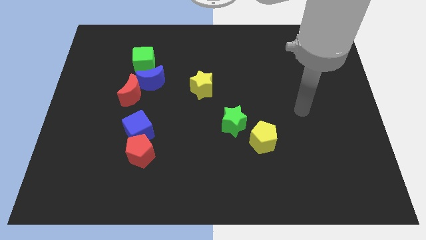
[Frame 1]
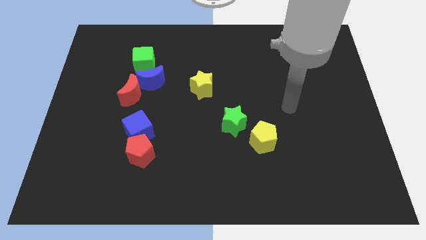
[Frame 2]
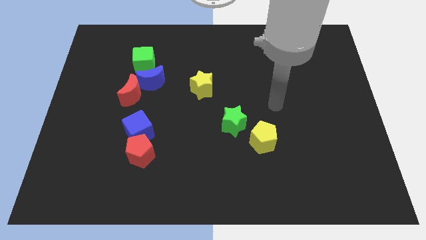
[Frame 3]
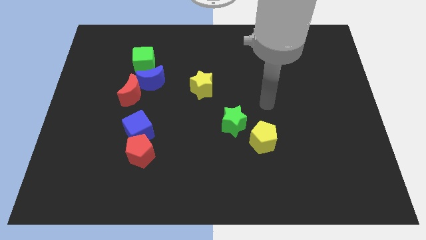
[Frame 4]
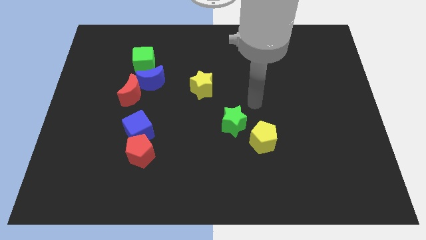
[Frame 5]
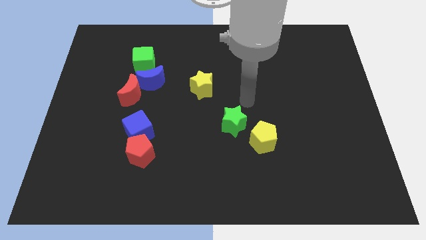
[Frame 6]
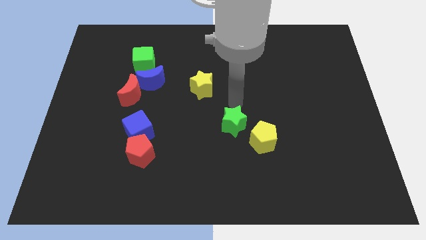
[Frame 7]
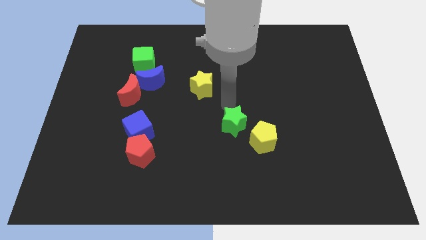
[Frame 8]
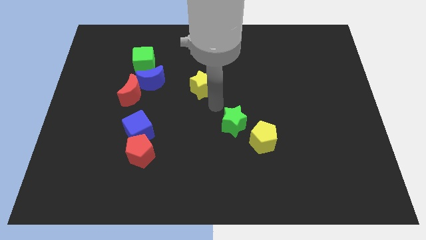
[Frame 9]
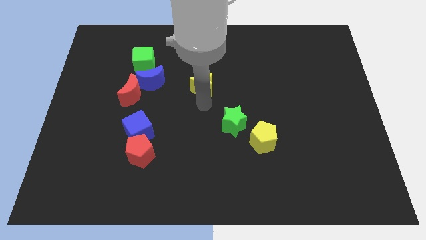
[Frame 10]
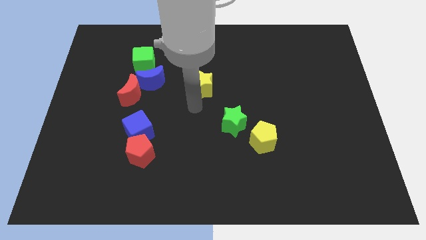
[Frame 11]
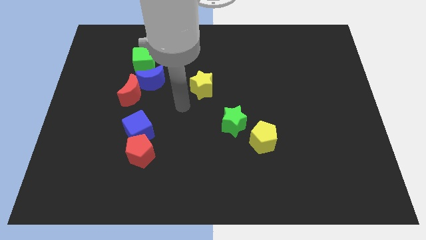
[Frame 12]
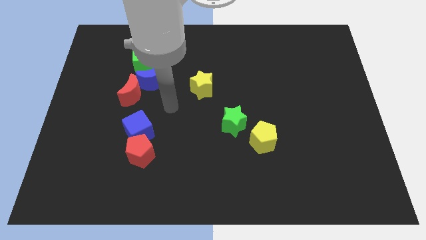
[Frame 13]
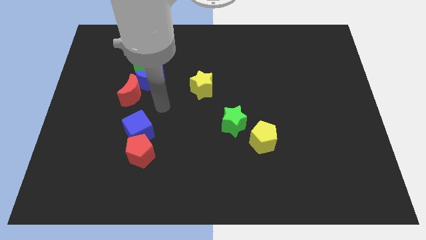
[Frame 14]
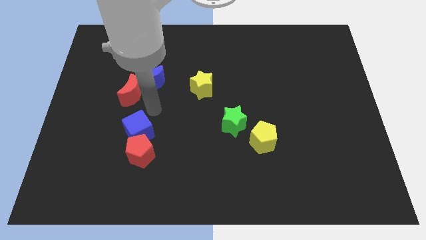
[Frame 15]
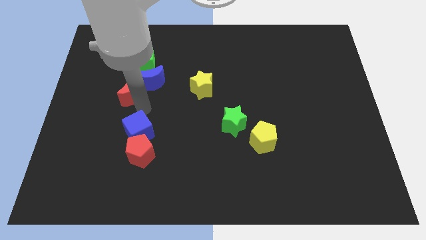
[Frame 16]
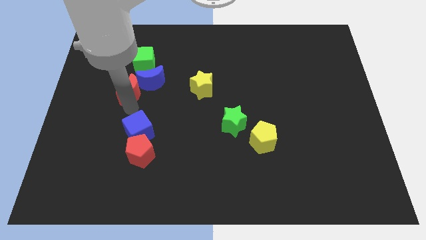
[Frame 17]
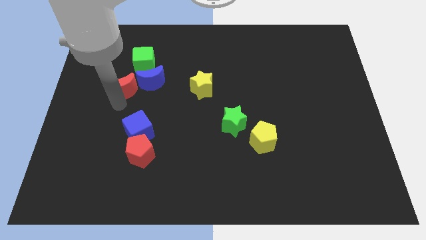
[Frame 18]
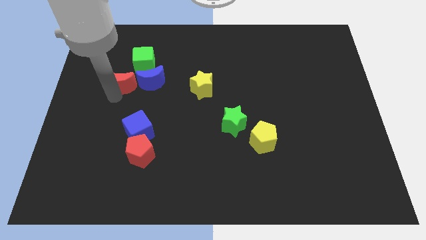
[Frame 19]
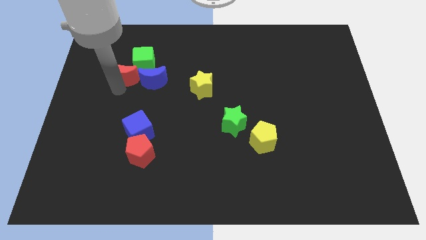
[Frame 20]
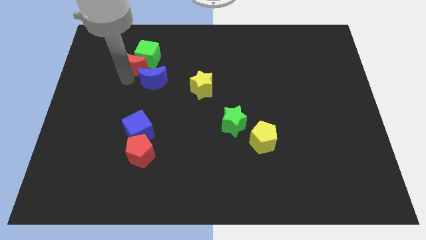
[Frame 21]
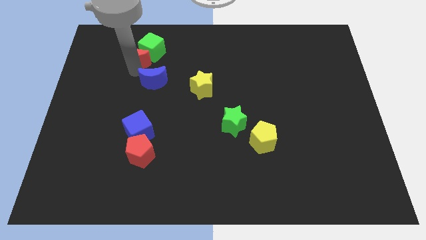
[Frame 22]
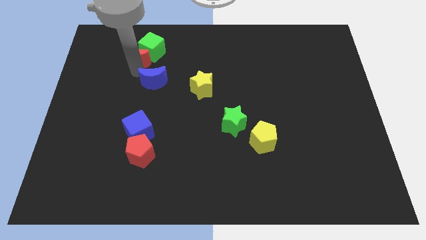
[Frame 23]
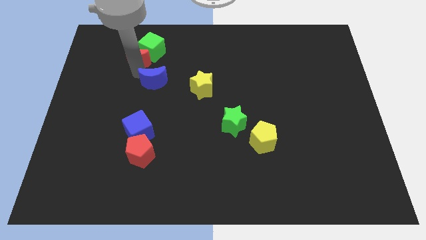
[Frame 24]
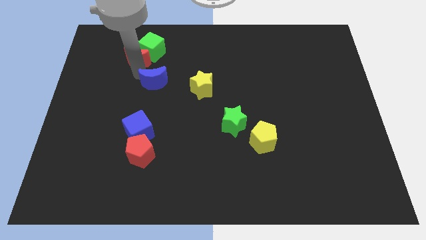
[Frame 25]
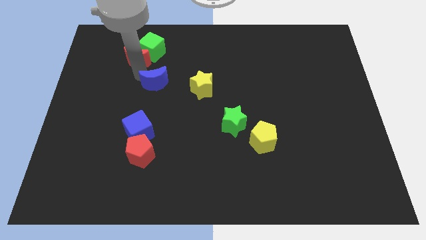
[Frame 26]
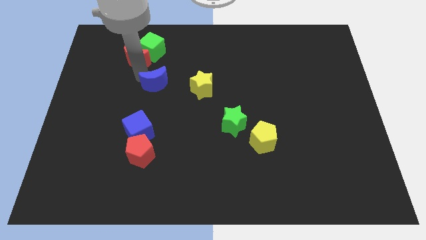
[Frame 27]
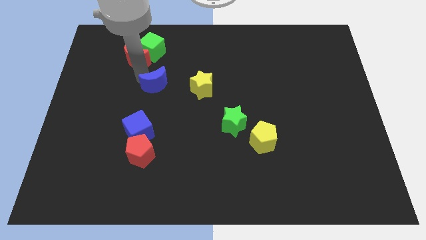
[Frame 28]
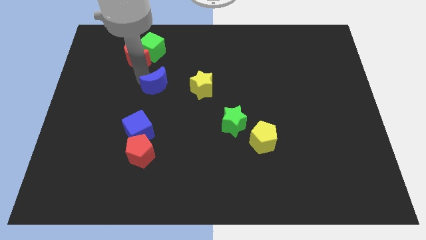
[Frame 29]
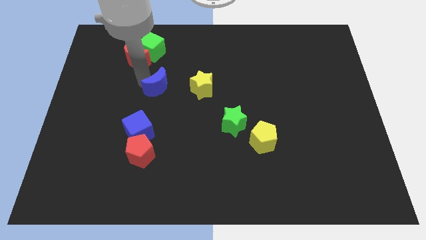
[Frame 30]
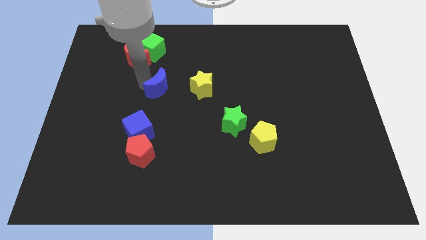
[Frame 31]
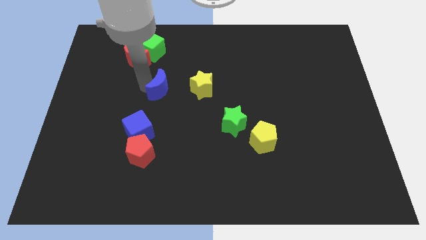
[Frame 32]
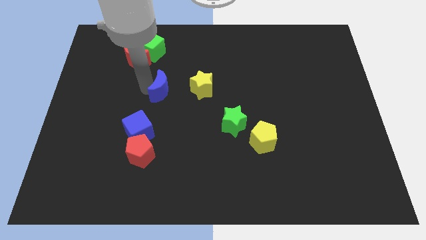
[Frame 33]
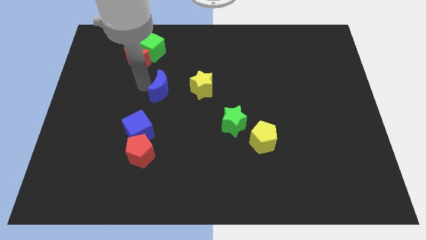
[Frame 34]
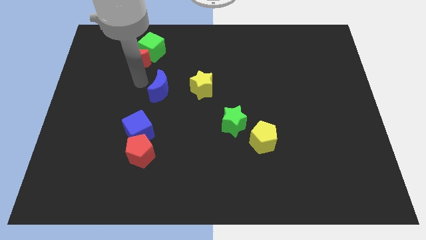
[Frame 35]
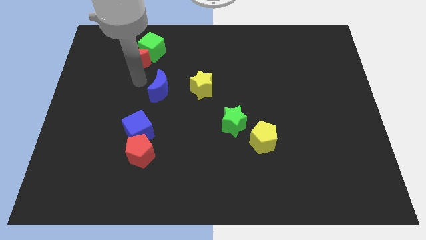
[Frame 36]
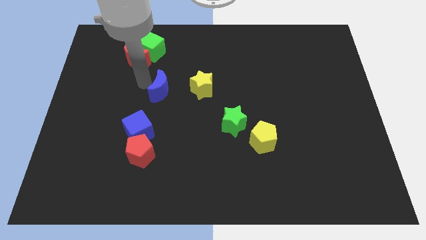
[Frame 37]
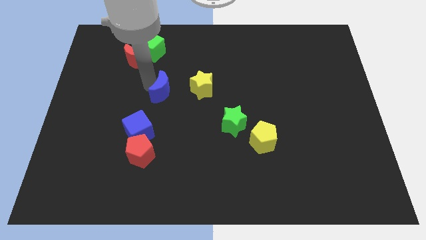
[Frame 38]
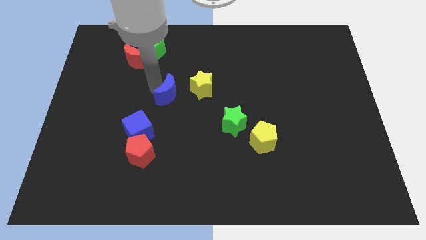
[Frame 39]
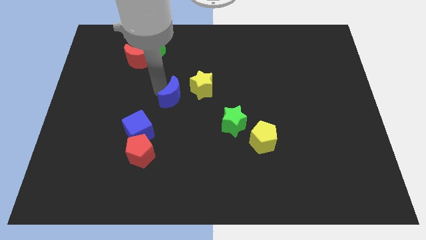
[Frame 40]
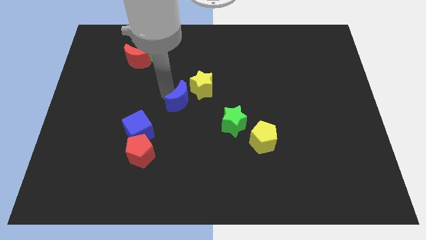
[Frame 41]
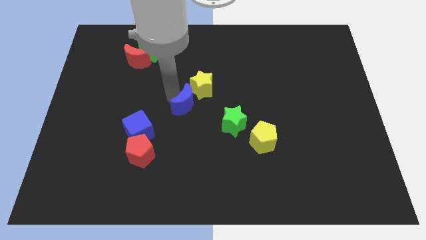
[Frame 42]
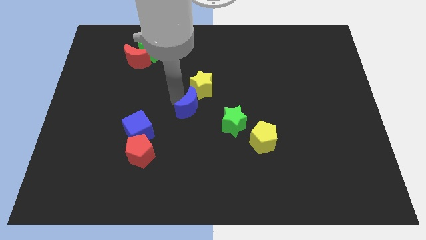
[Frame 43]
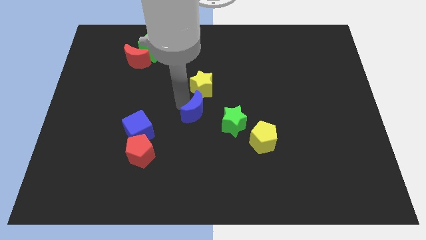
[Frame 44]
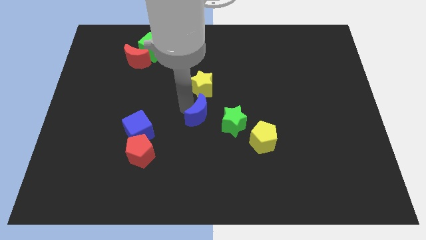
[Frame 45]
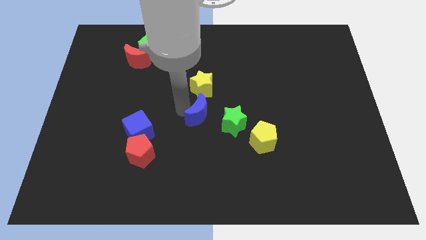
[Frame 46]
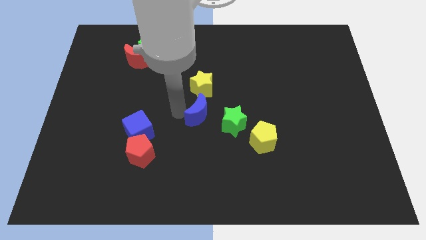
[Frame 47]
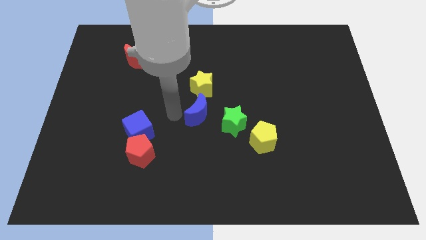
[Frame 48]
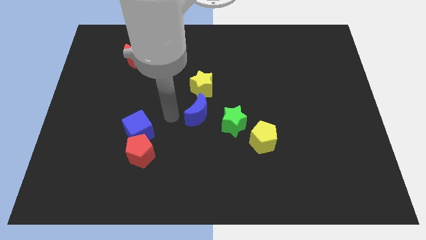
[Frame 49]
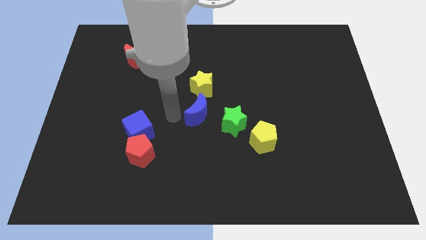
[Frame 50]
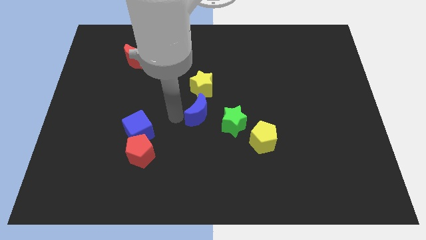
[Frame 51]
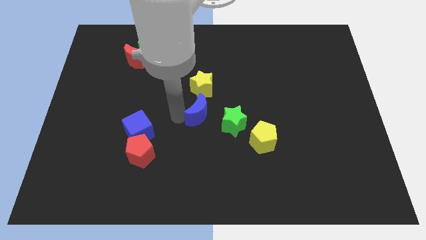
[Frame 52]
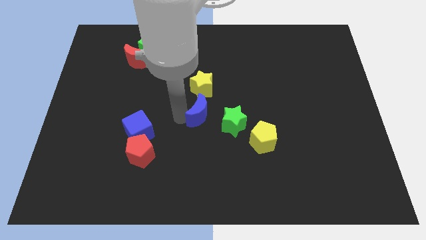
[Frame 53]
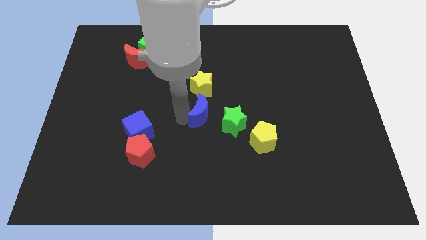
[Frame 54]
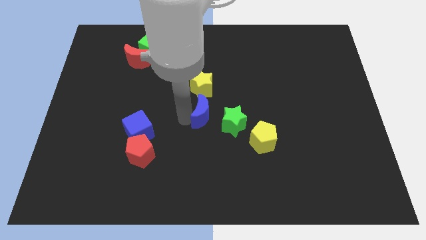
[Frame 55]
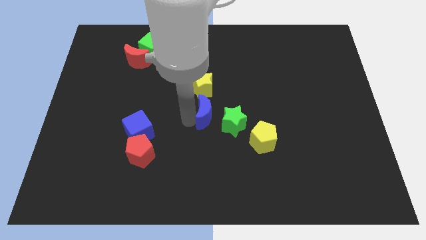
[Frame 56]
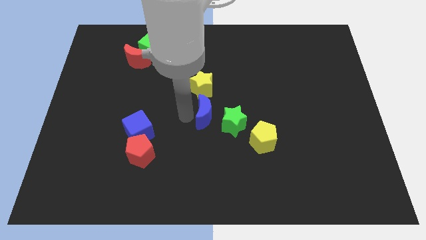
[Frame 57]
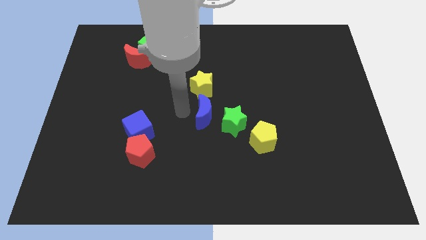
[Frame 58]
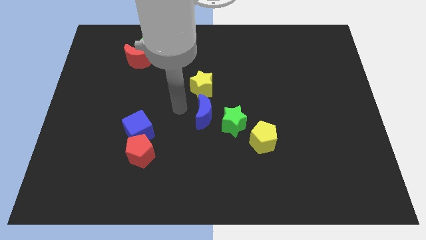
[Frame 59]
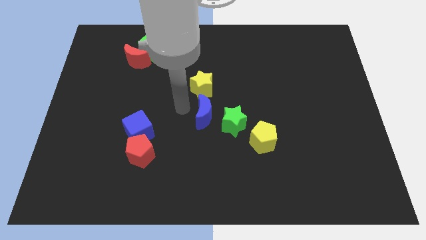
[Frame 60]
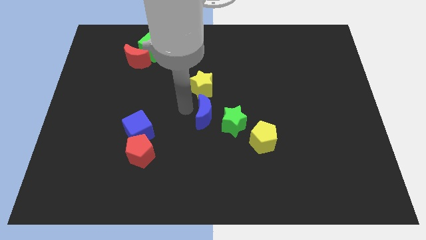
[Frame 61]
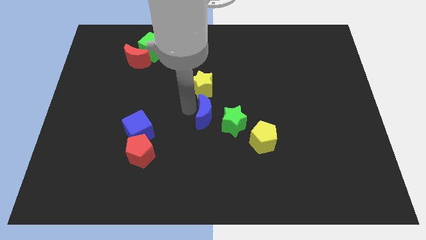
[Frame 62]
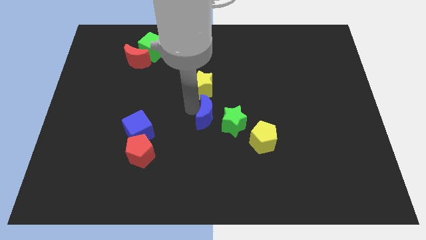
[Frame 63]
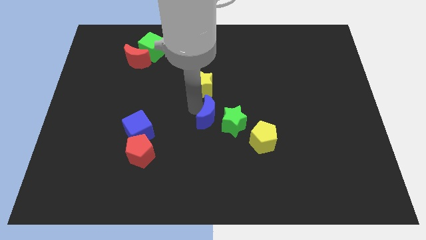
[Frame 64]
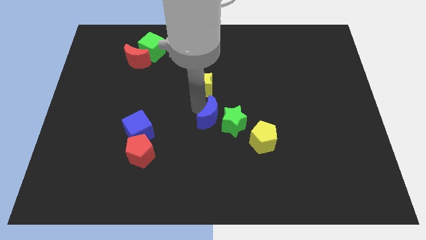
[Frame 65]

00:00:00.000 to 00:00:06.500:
slide the blue moon towards the green star
